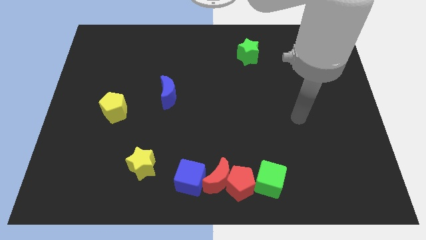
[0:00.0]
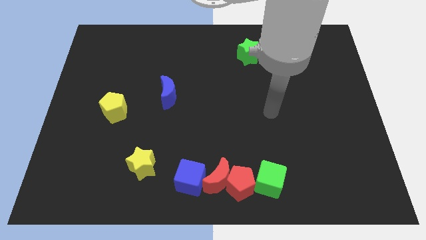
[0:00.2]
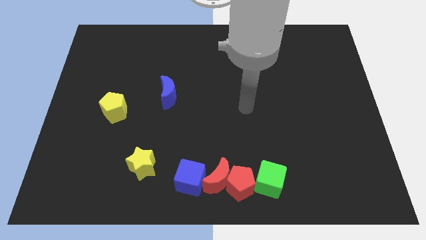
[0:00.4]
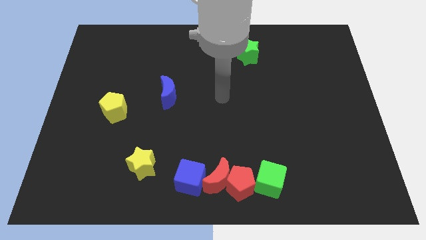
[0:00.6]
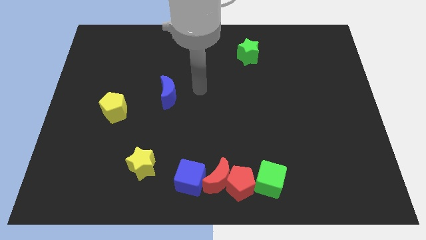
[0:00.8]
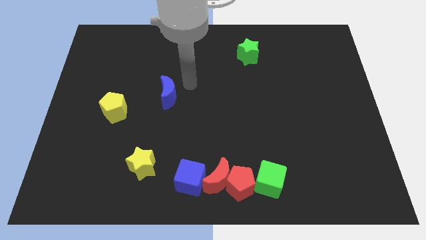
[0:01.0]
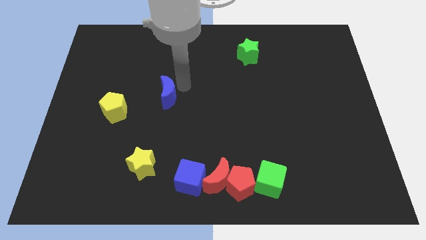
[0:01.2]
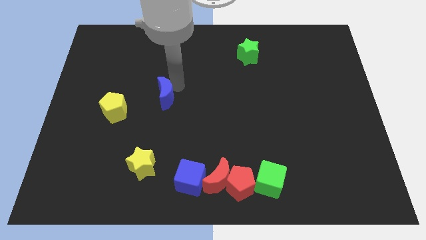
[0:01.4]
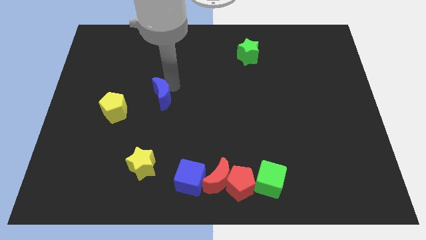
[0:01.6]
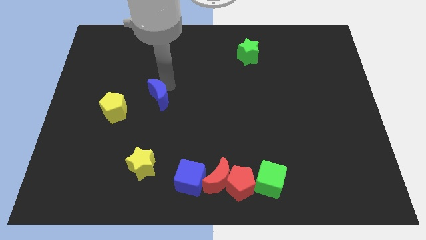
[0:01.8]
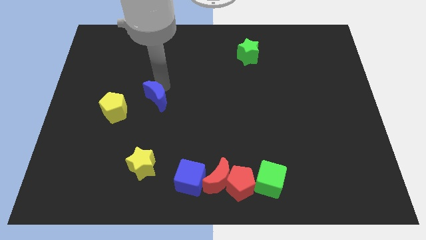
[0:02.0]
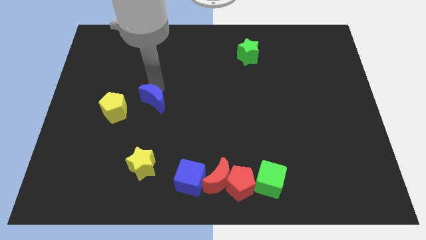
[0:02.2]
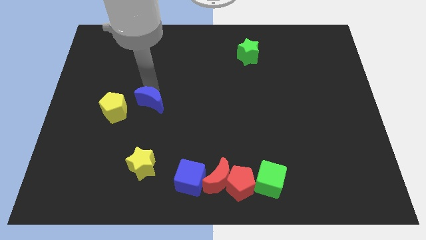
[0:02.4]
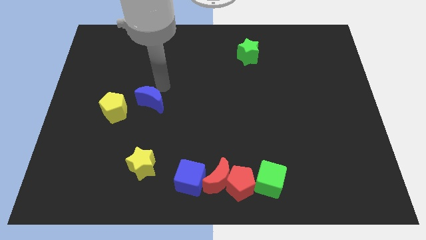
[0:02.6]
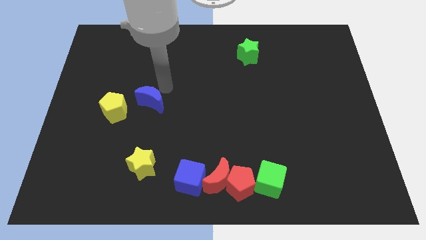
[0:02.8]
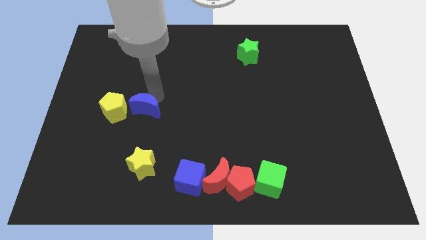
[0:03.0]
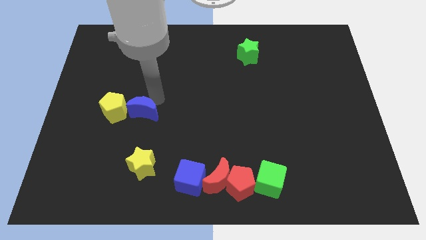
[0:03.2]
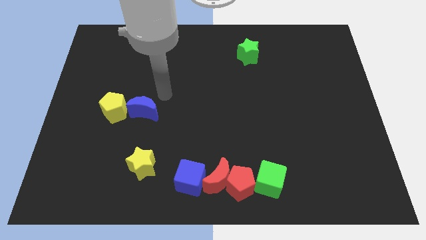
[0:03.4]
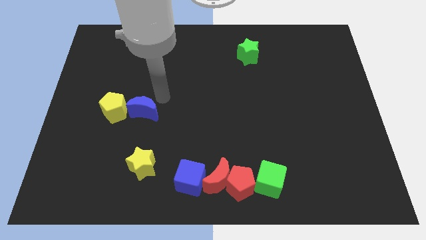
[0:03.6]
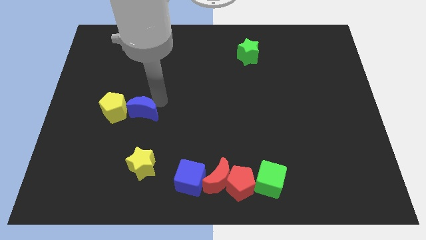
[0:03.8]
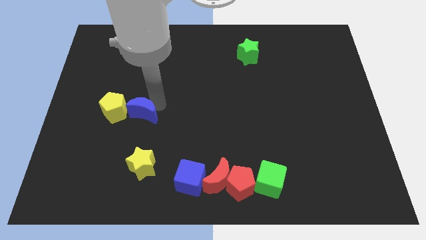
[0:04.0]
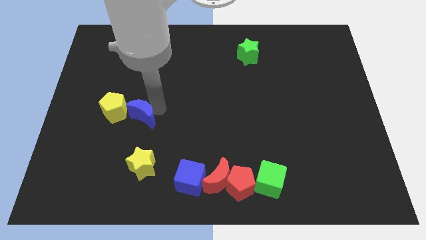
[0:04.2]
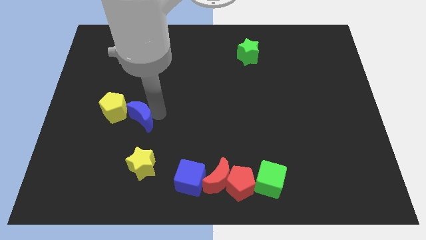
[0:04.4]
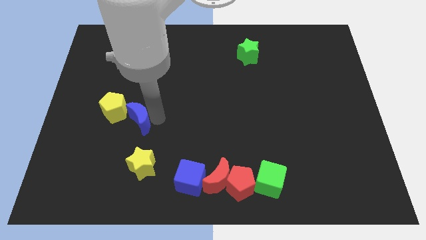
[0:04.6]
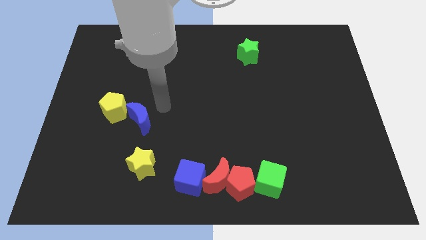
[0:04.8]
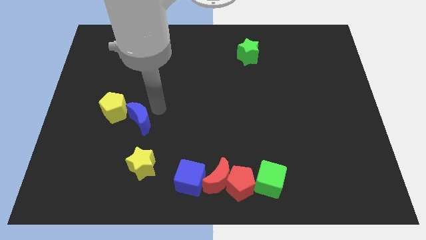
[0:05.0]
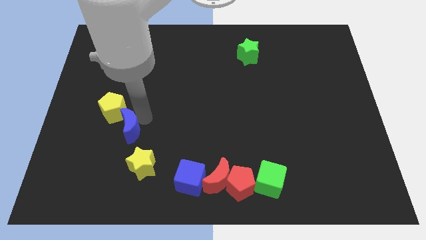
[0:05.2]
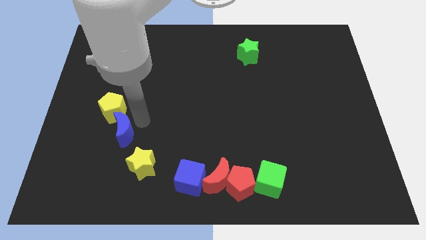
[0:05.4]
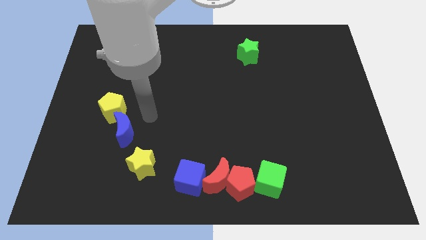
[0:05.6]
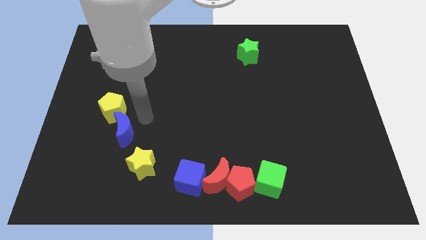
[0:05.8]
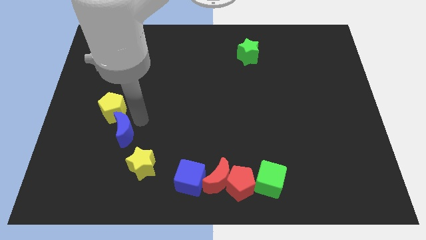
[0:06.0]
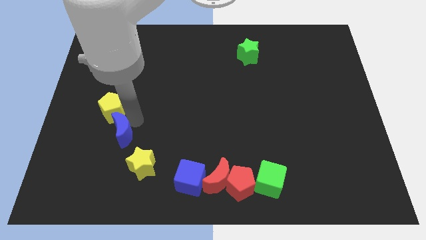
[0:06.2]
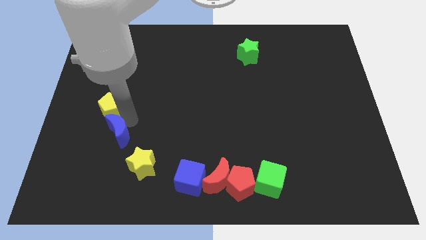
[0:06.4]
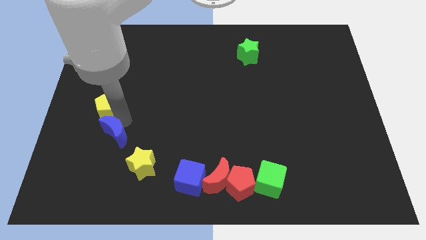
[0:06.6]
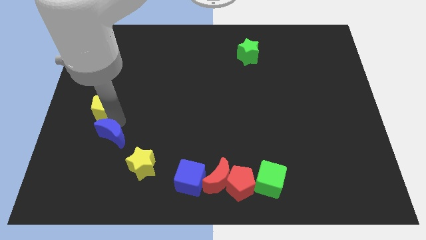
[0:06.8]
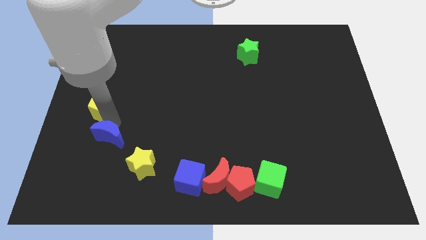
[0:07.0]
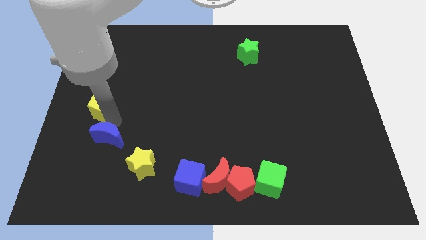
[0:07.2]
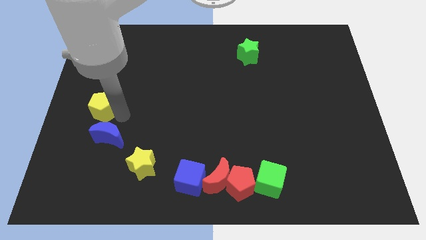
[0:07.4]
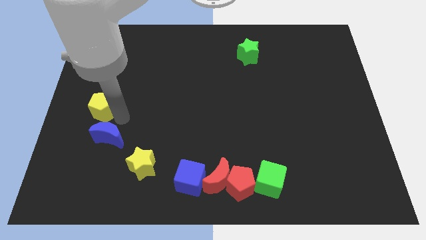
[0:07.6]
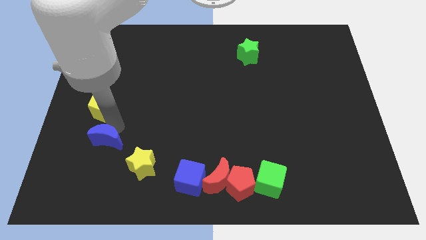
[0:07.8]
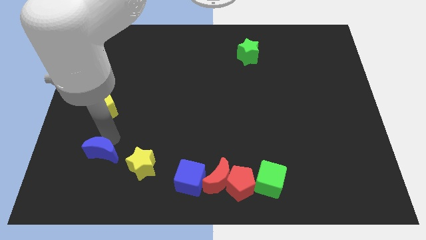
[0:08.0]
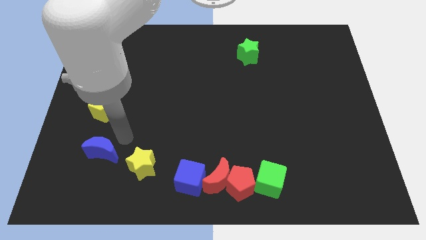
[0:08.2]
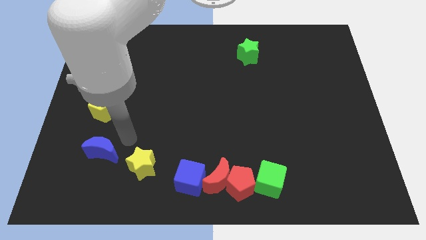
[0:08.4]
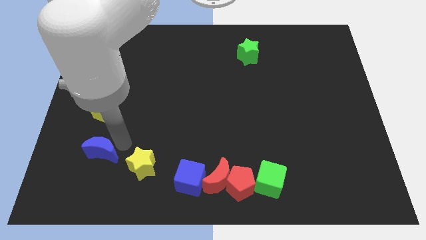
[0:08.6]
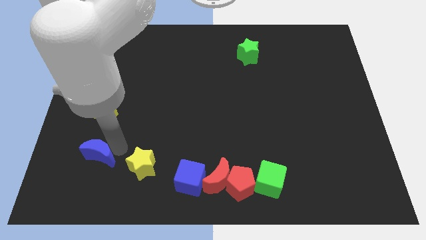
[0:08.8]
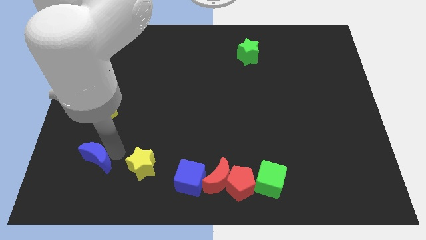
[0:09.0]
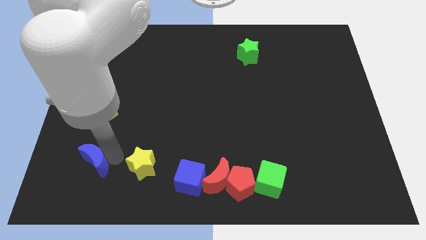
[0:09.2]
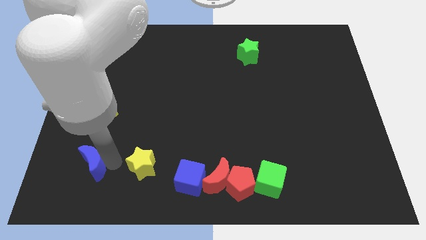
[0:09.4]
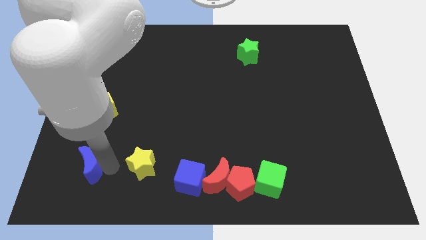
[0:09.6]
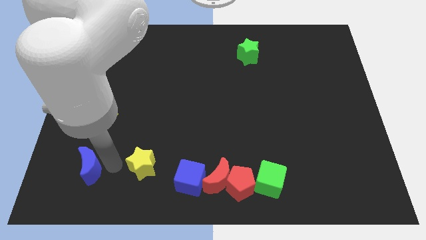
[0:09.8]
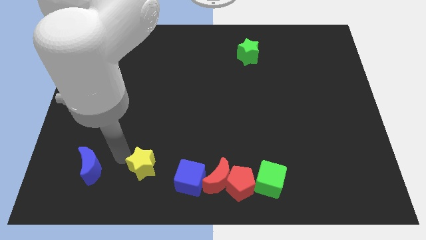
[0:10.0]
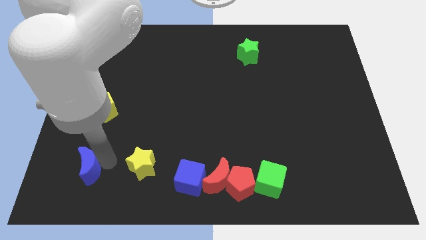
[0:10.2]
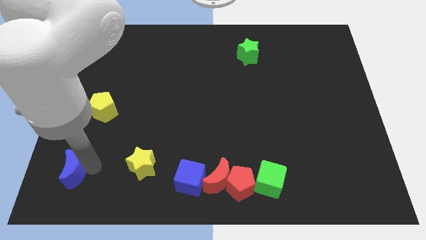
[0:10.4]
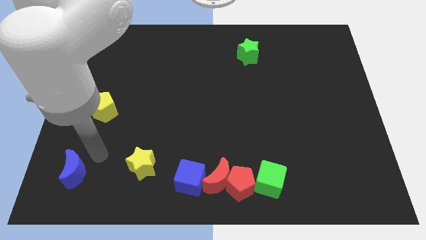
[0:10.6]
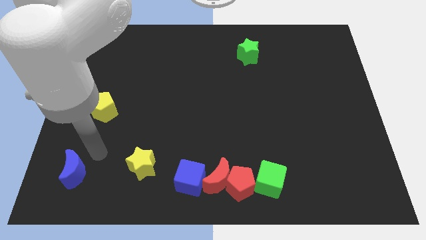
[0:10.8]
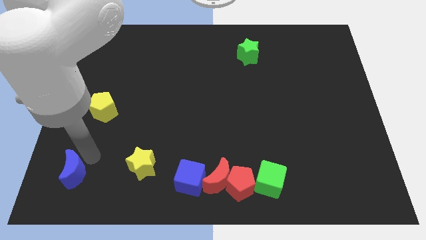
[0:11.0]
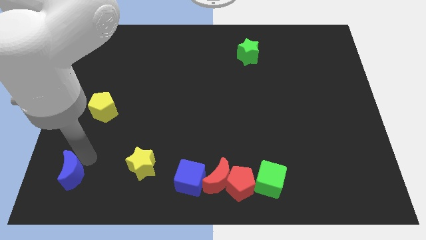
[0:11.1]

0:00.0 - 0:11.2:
slide the blue moon to the bottom left
